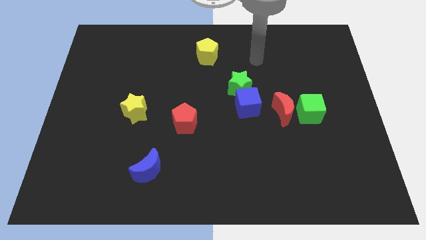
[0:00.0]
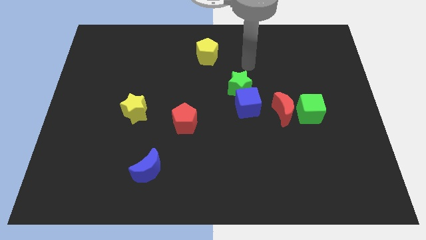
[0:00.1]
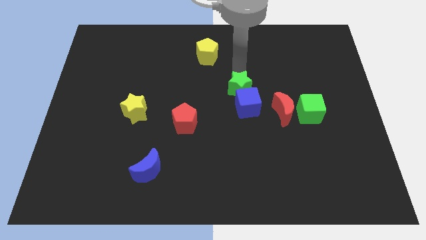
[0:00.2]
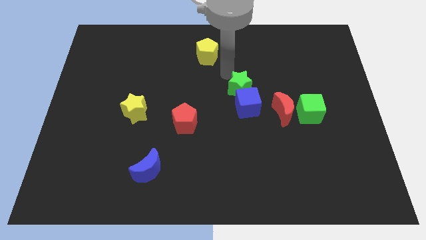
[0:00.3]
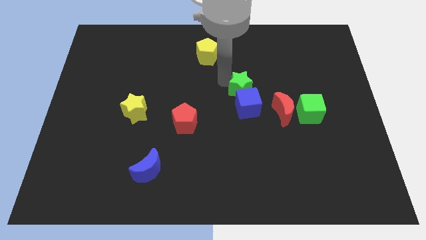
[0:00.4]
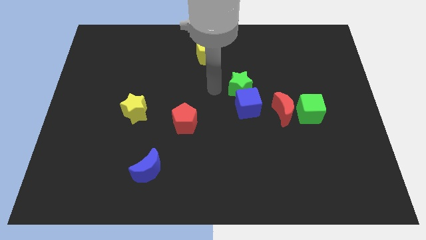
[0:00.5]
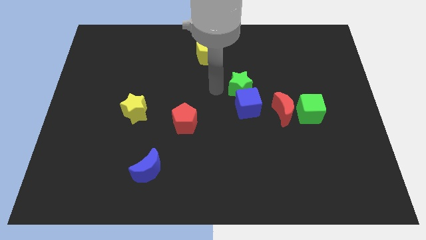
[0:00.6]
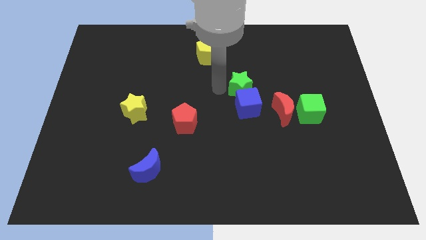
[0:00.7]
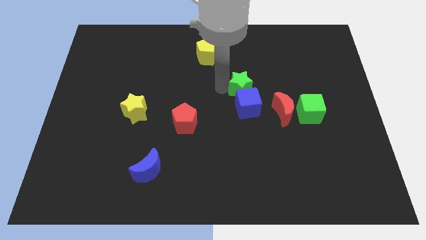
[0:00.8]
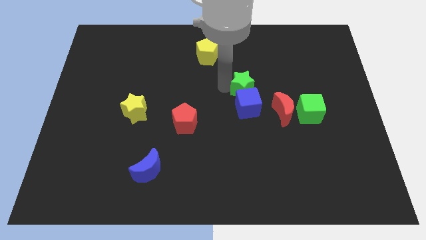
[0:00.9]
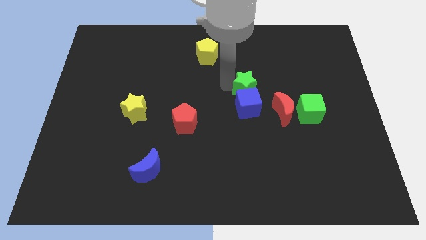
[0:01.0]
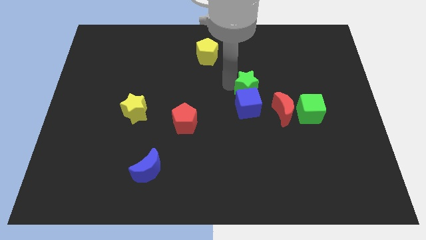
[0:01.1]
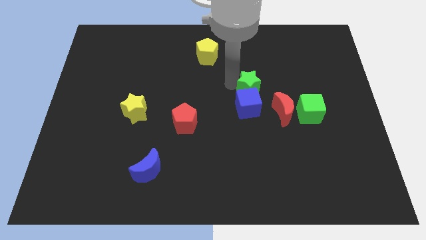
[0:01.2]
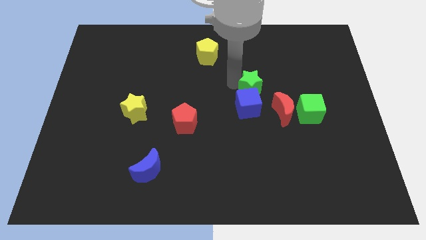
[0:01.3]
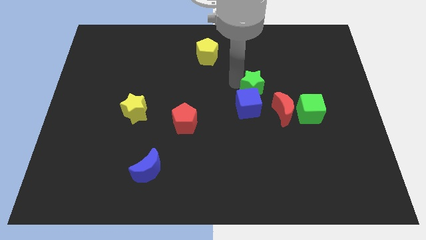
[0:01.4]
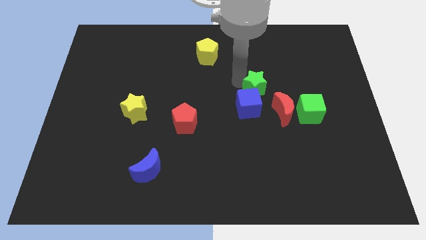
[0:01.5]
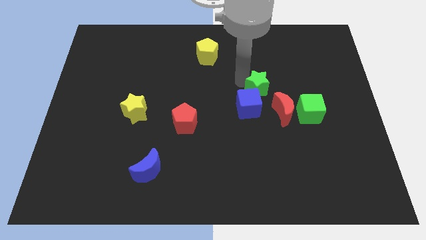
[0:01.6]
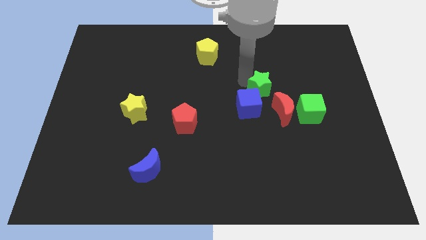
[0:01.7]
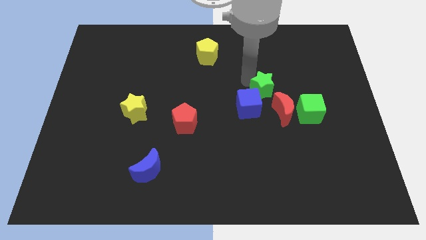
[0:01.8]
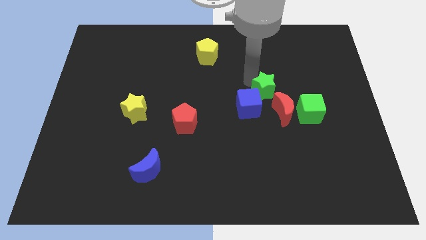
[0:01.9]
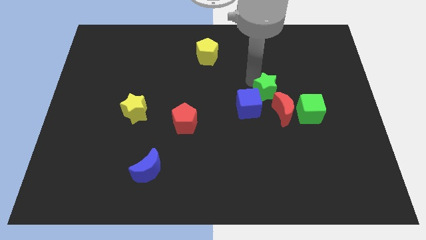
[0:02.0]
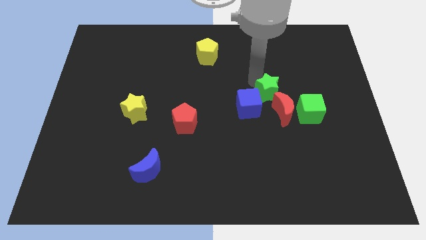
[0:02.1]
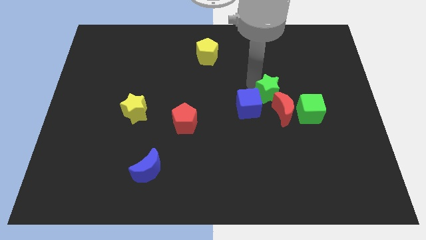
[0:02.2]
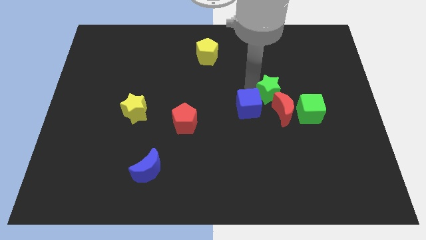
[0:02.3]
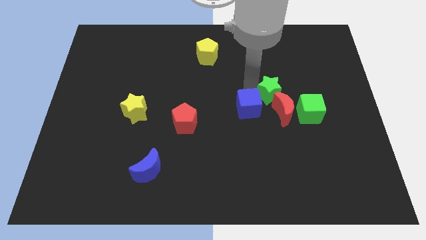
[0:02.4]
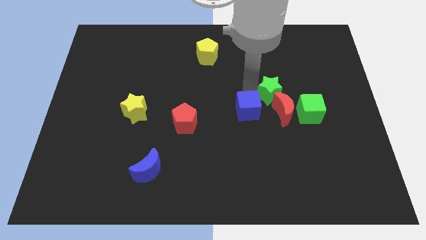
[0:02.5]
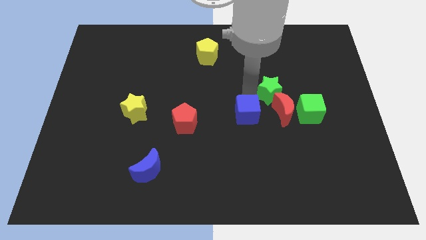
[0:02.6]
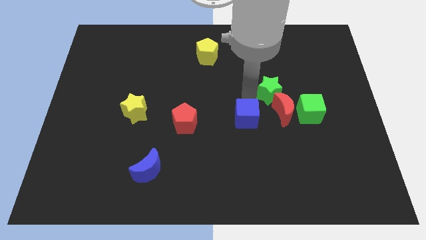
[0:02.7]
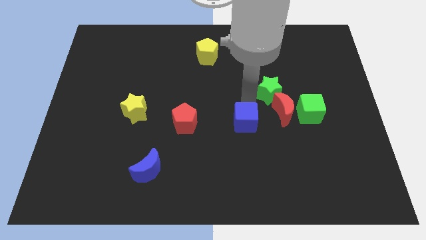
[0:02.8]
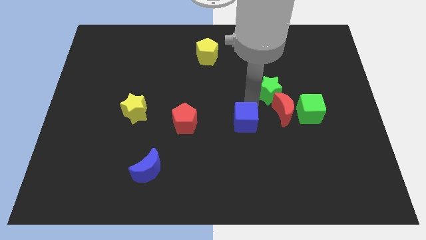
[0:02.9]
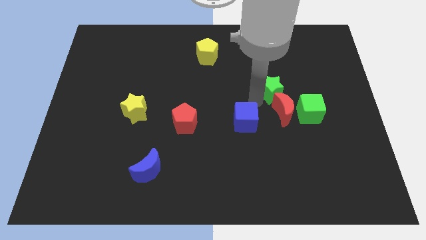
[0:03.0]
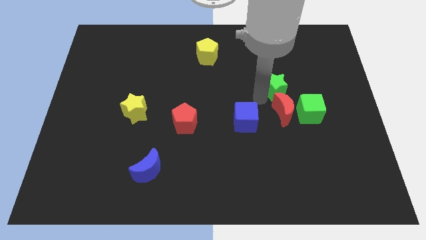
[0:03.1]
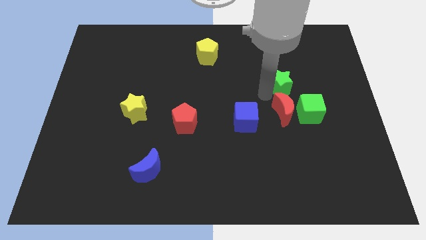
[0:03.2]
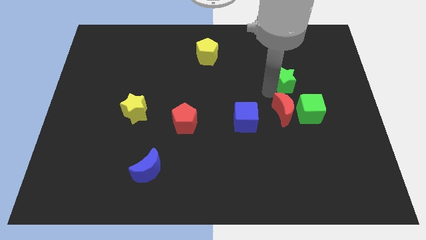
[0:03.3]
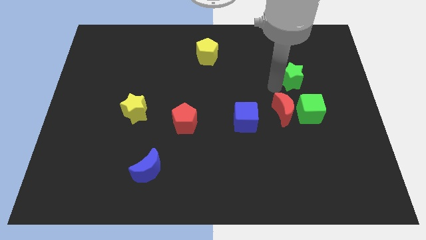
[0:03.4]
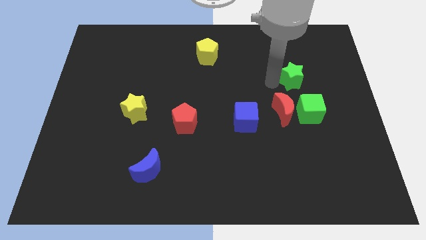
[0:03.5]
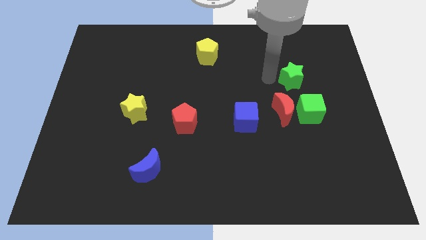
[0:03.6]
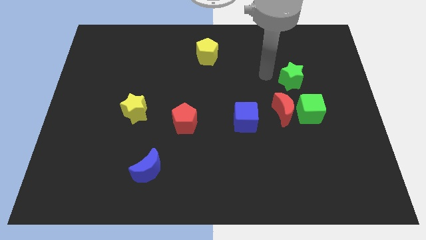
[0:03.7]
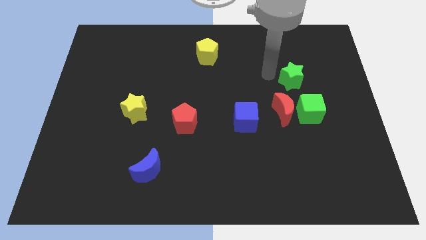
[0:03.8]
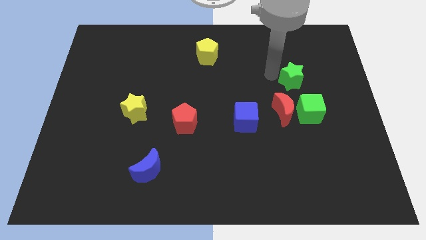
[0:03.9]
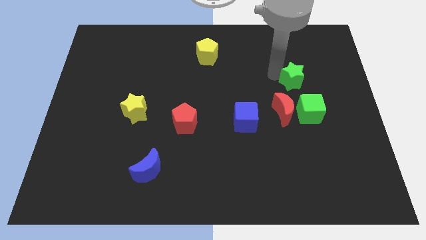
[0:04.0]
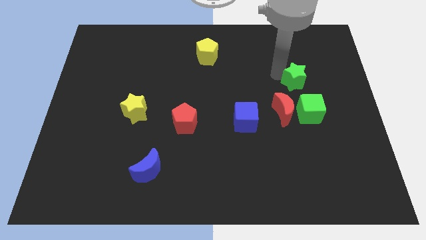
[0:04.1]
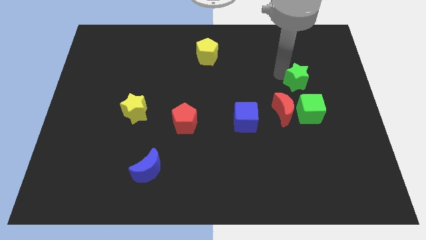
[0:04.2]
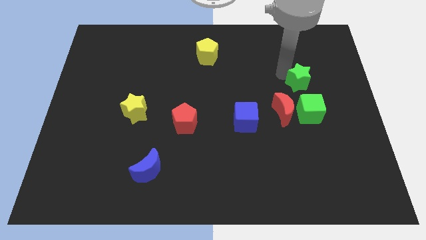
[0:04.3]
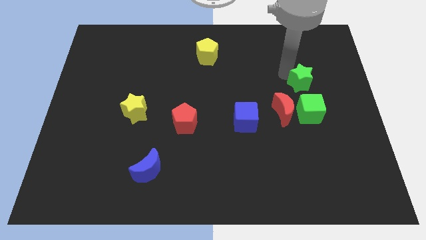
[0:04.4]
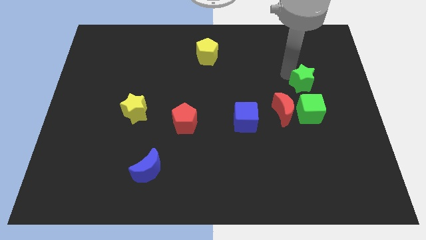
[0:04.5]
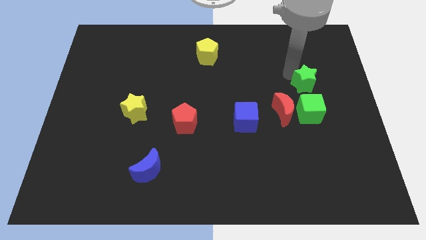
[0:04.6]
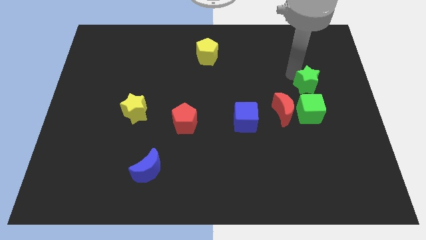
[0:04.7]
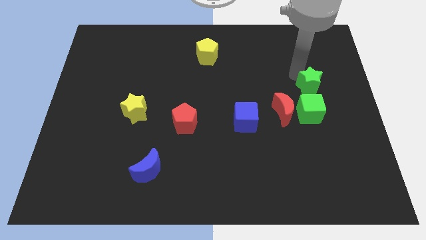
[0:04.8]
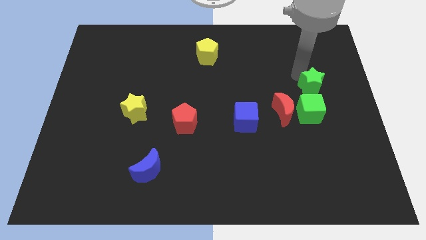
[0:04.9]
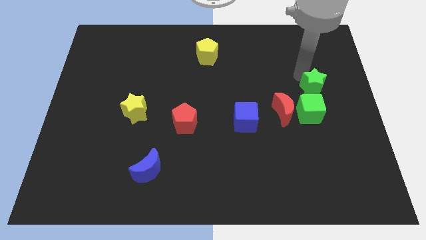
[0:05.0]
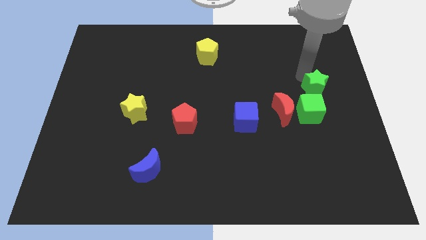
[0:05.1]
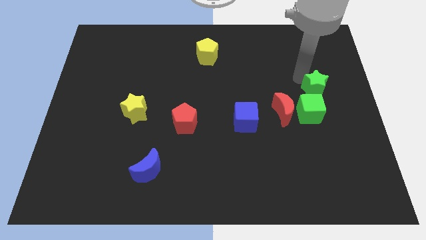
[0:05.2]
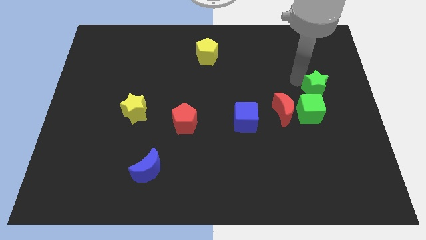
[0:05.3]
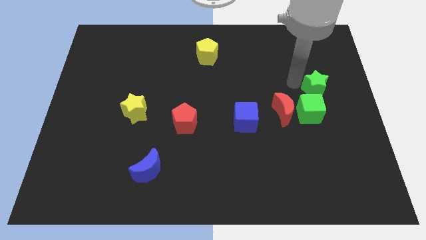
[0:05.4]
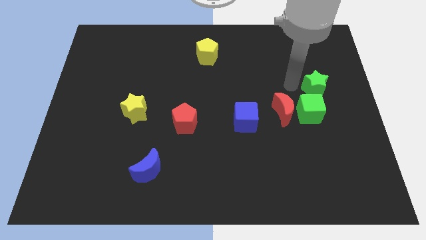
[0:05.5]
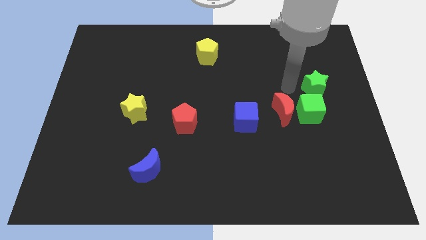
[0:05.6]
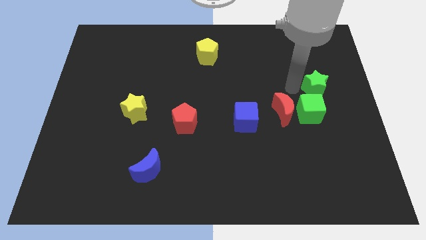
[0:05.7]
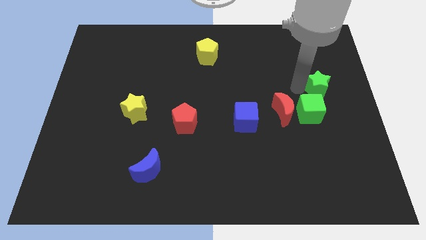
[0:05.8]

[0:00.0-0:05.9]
slide the green star to the right side of the board

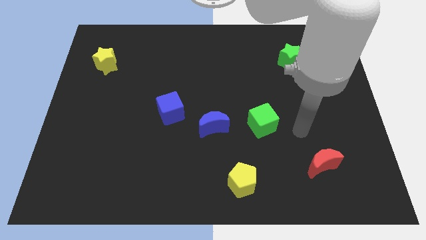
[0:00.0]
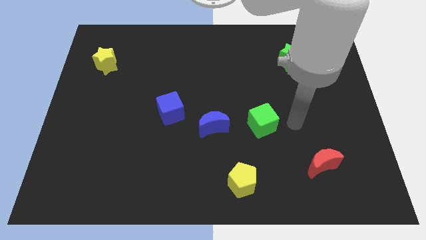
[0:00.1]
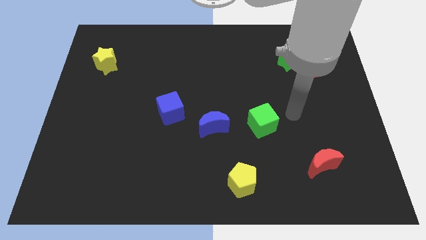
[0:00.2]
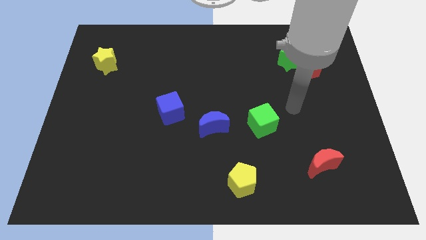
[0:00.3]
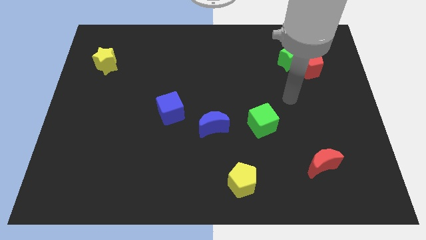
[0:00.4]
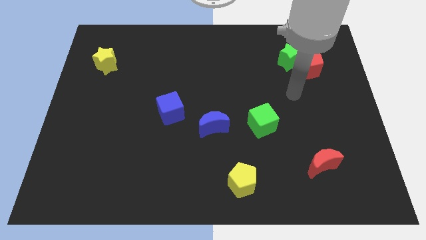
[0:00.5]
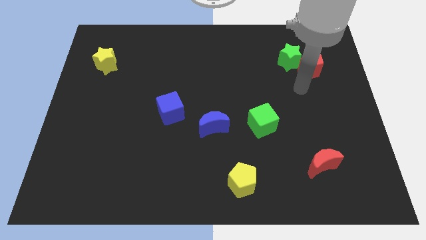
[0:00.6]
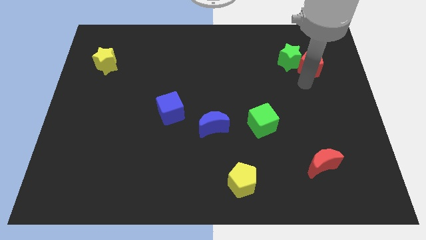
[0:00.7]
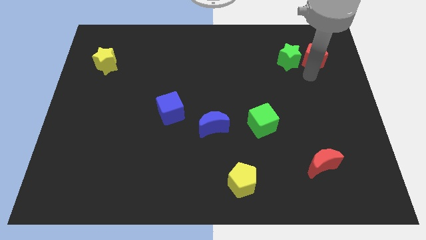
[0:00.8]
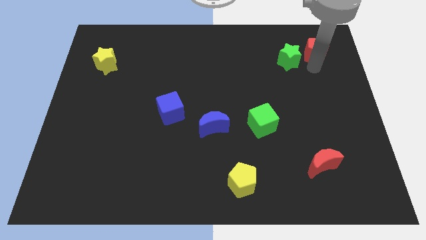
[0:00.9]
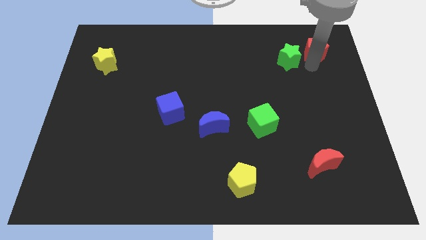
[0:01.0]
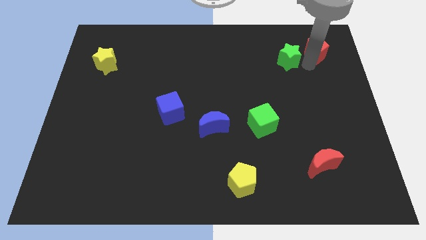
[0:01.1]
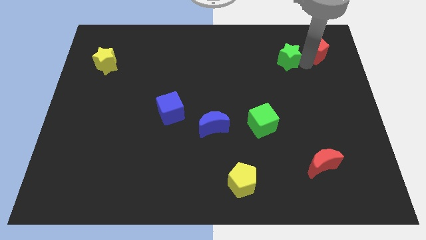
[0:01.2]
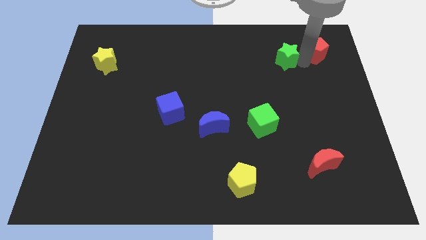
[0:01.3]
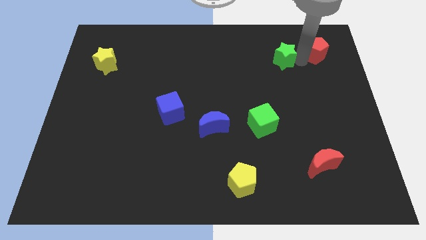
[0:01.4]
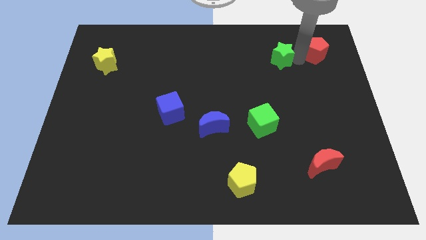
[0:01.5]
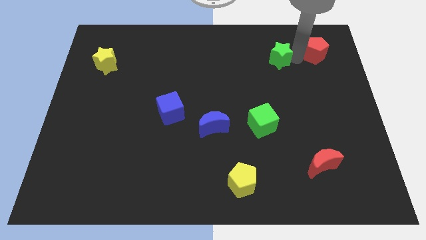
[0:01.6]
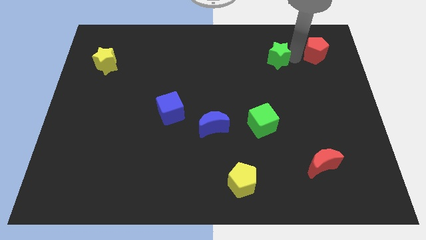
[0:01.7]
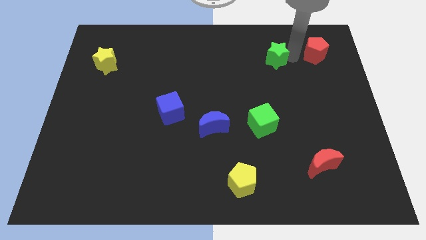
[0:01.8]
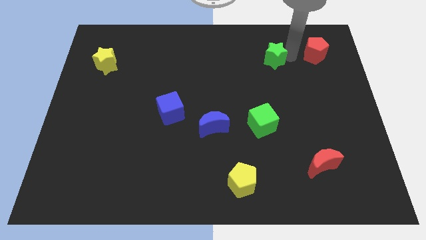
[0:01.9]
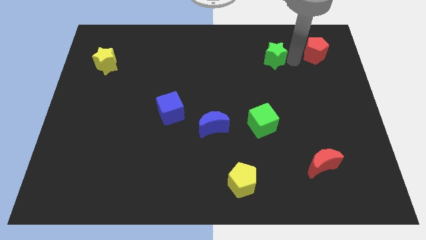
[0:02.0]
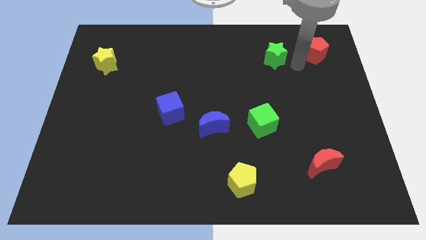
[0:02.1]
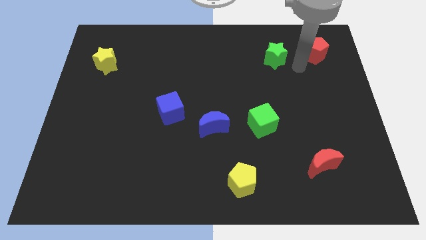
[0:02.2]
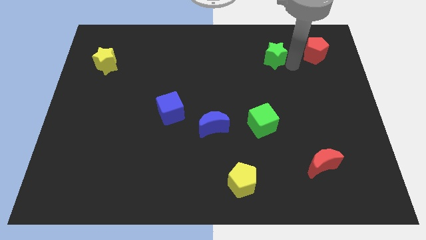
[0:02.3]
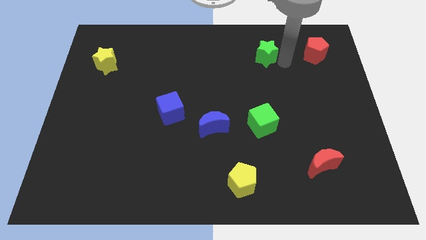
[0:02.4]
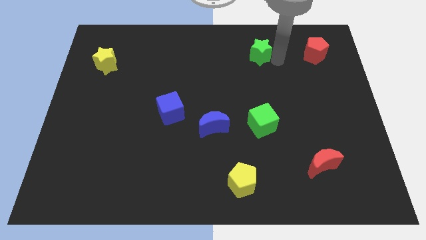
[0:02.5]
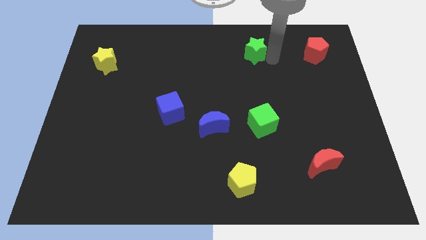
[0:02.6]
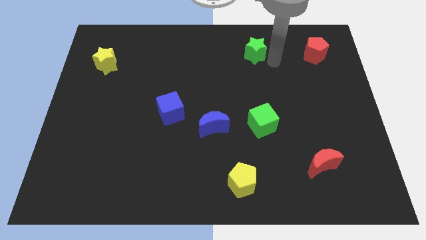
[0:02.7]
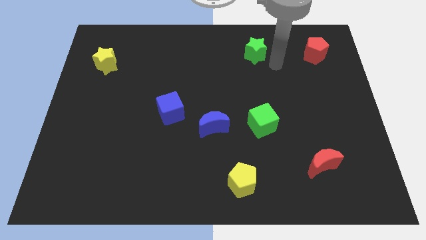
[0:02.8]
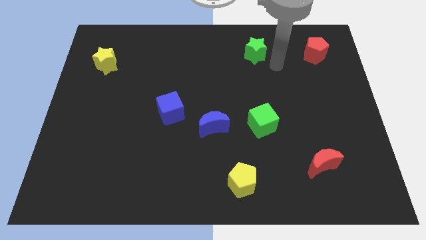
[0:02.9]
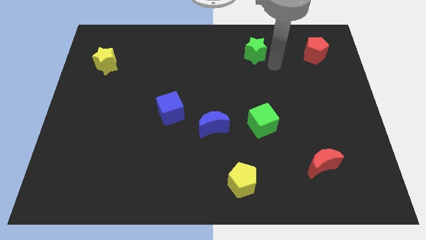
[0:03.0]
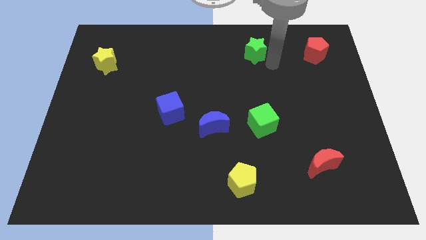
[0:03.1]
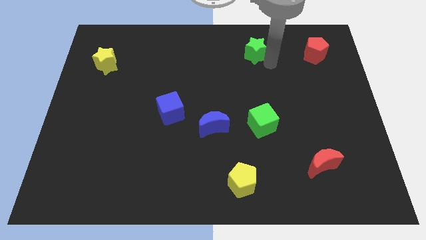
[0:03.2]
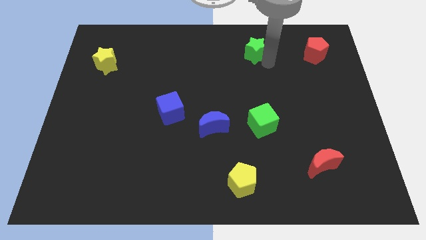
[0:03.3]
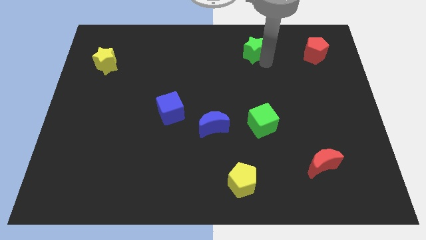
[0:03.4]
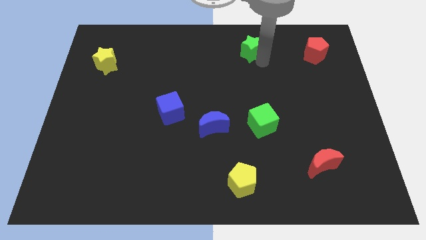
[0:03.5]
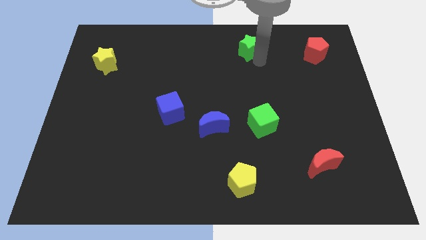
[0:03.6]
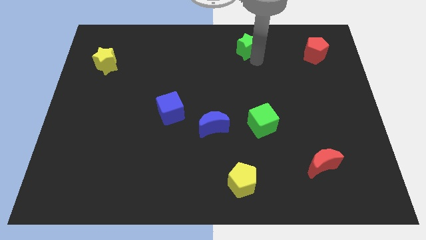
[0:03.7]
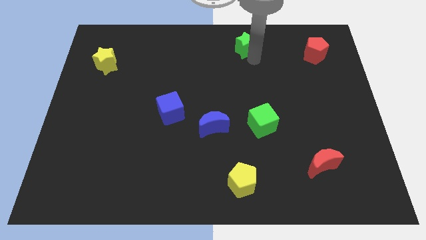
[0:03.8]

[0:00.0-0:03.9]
move the green star to the top side
